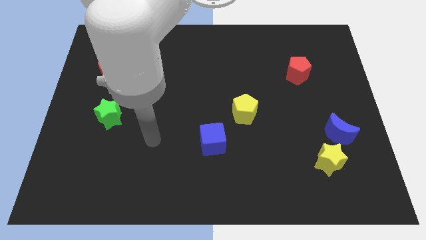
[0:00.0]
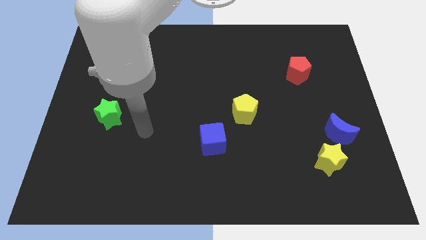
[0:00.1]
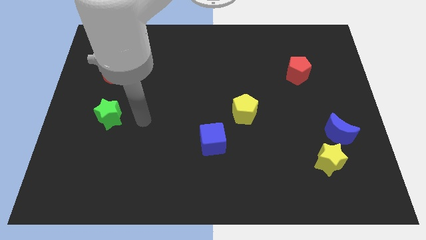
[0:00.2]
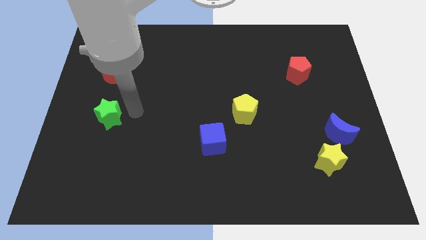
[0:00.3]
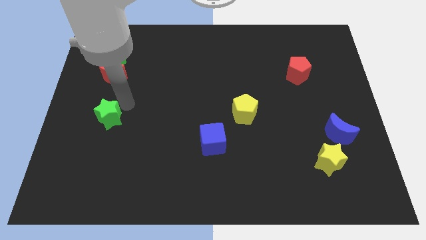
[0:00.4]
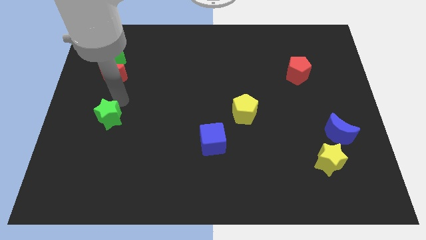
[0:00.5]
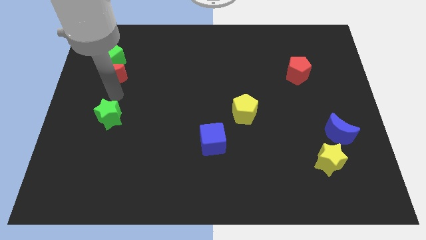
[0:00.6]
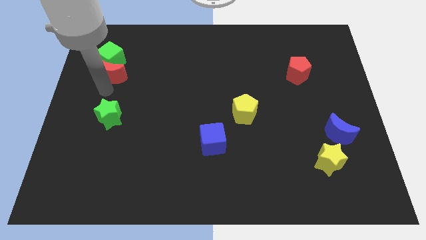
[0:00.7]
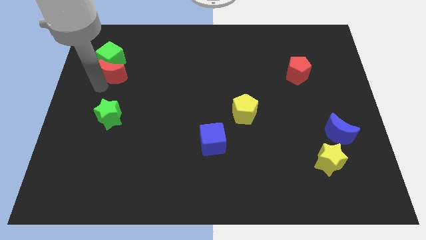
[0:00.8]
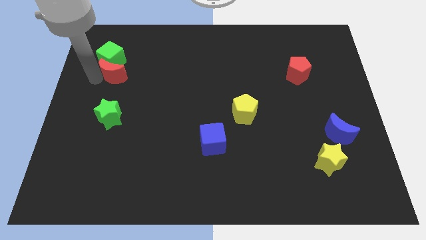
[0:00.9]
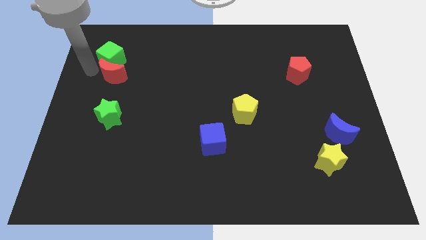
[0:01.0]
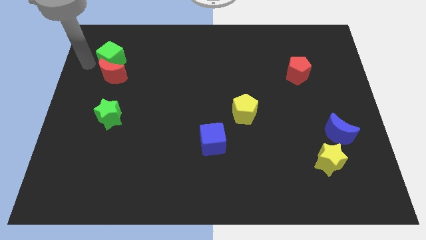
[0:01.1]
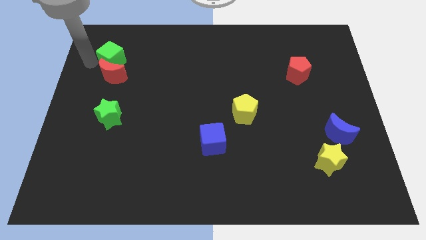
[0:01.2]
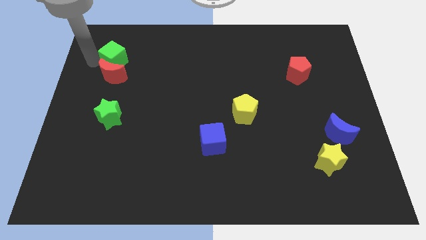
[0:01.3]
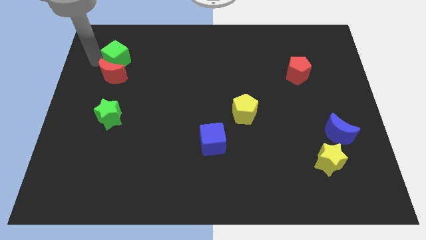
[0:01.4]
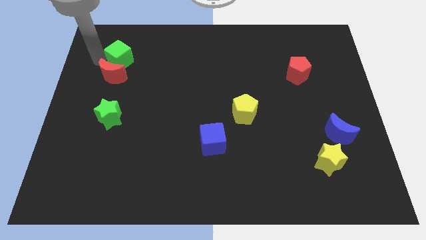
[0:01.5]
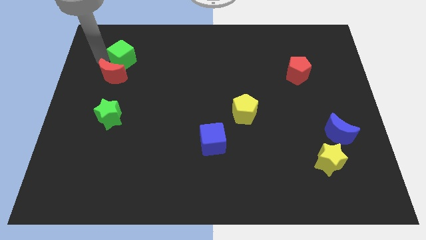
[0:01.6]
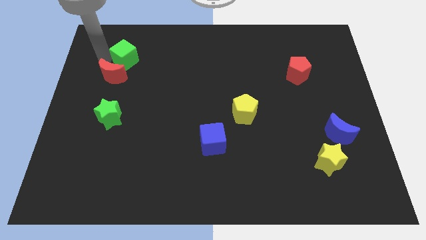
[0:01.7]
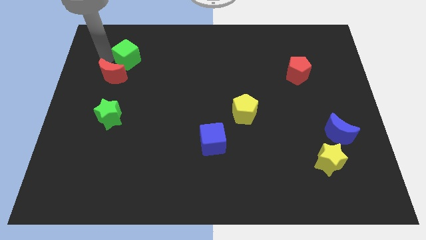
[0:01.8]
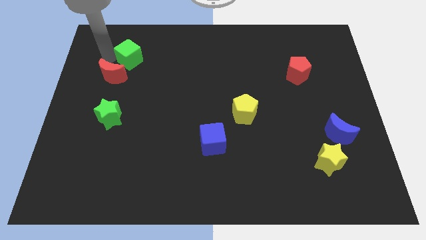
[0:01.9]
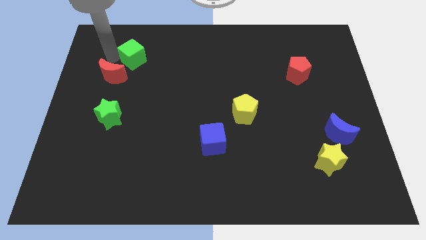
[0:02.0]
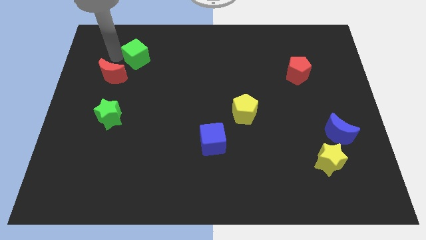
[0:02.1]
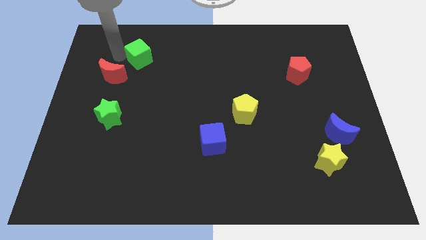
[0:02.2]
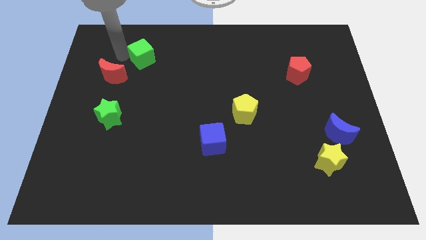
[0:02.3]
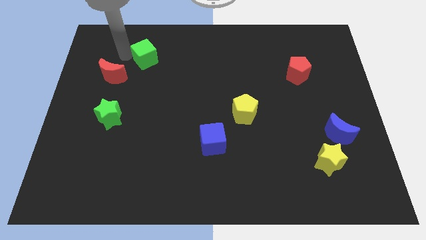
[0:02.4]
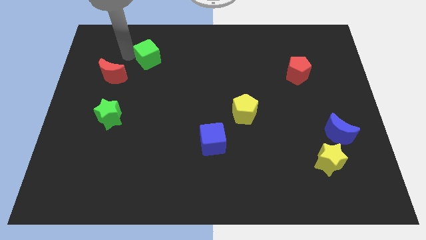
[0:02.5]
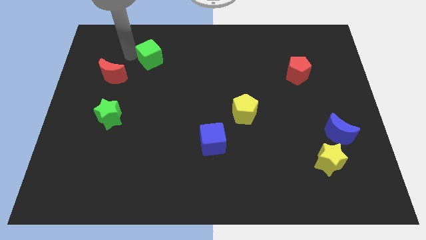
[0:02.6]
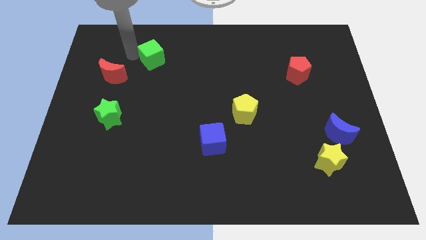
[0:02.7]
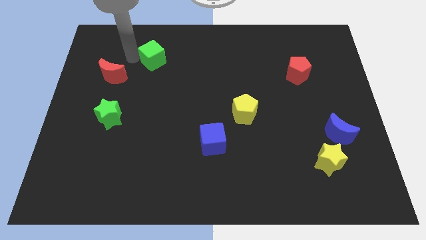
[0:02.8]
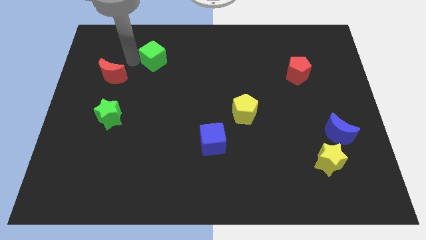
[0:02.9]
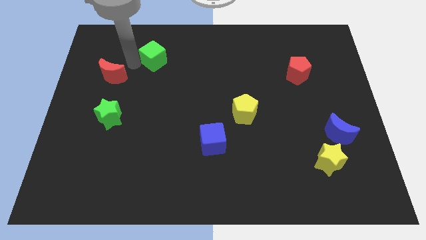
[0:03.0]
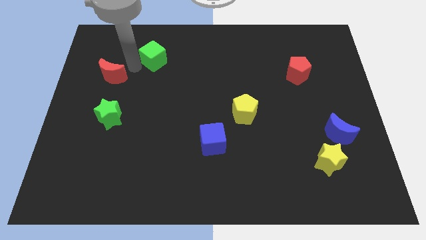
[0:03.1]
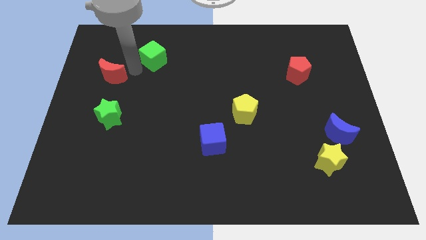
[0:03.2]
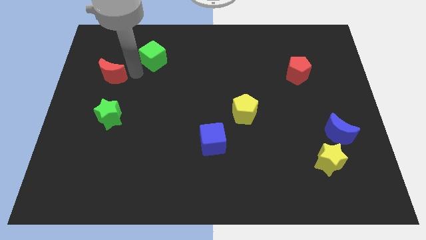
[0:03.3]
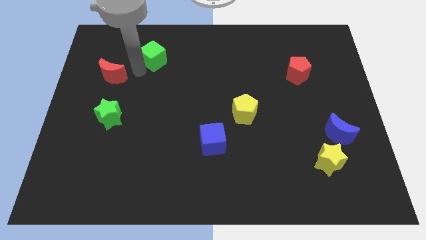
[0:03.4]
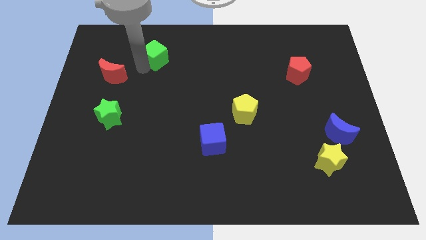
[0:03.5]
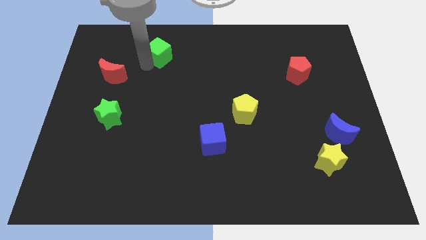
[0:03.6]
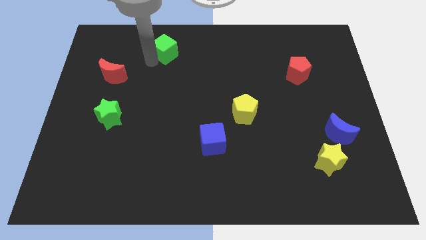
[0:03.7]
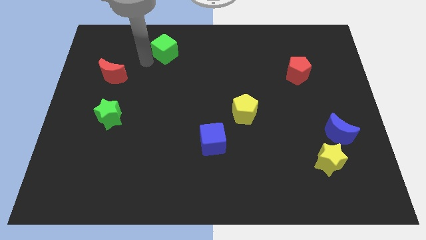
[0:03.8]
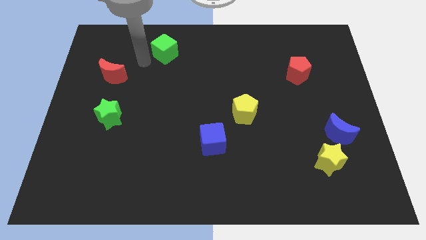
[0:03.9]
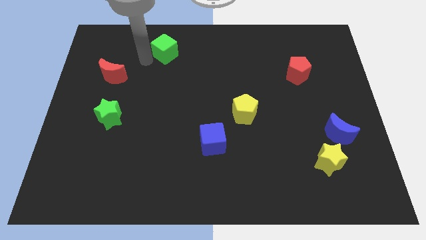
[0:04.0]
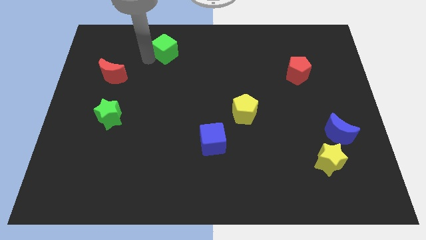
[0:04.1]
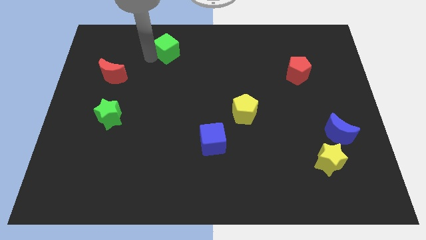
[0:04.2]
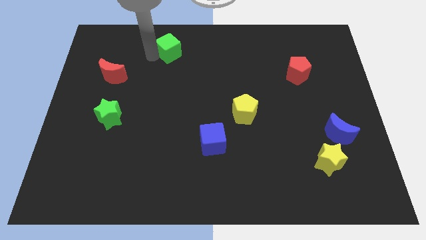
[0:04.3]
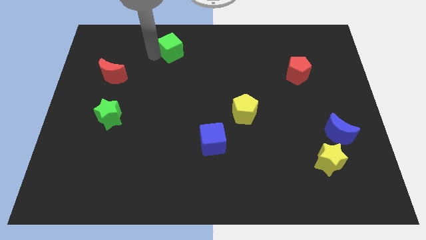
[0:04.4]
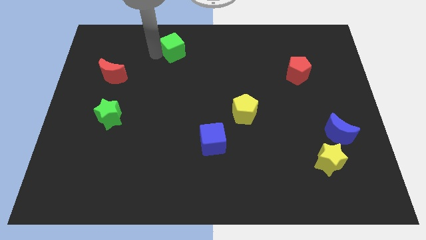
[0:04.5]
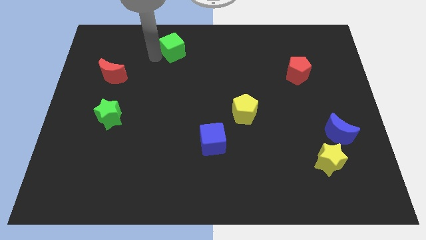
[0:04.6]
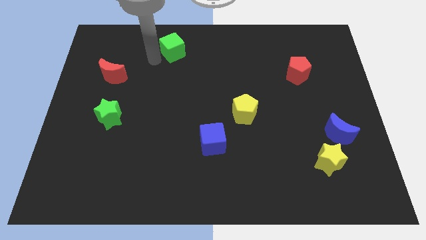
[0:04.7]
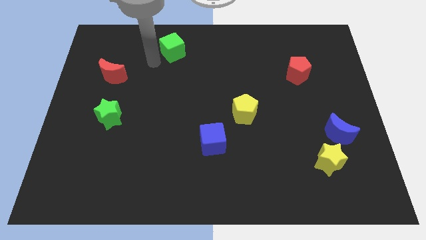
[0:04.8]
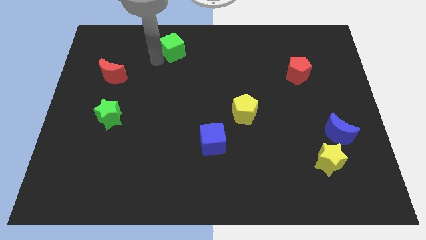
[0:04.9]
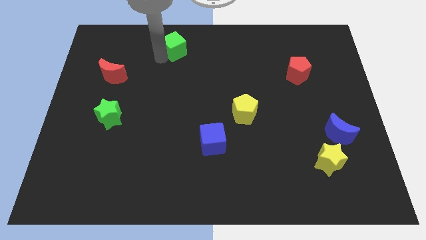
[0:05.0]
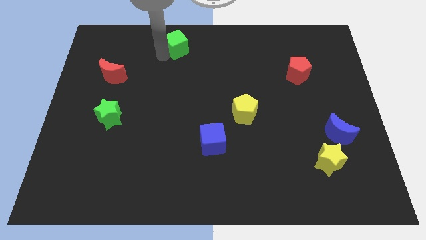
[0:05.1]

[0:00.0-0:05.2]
slide the green cube to the top side

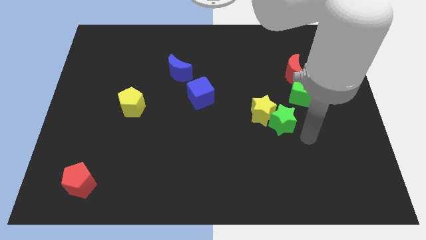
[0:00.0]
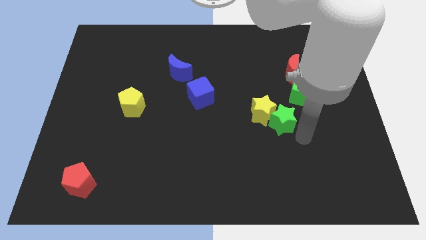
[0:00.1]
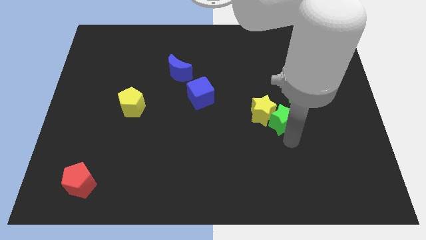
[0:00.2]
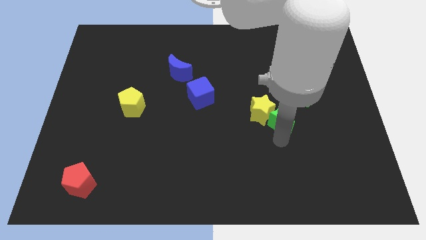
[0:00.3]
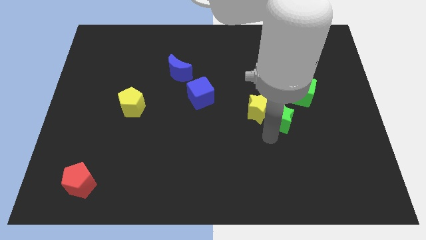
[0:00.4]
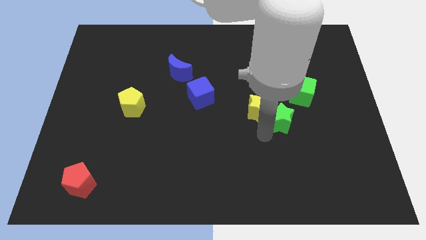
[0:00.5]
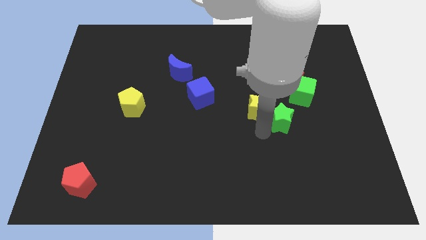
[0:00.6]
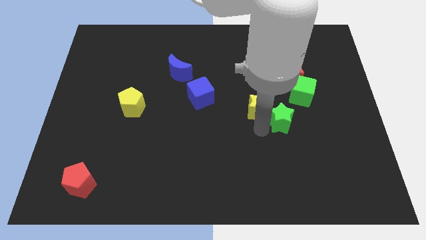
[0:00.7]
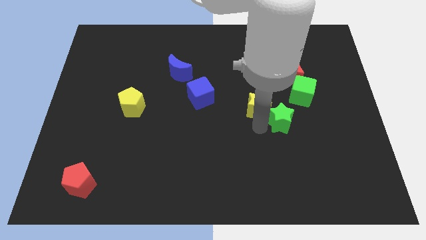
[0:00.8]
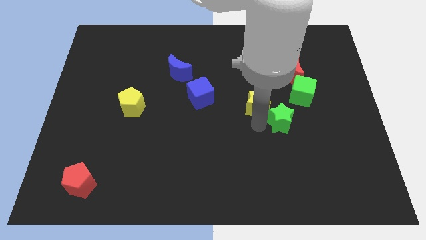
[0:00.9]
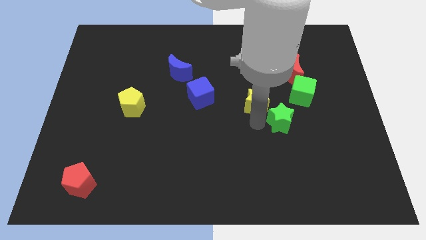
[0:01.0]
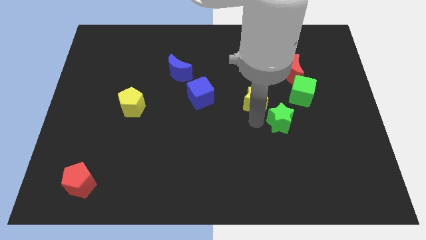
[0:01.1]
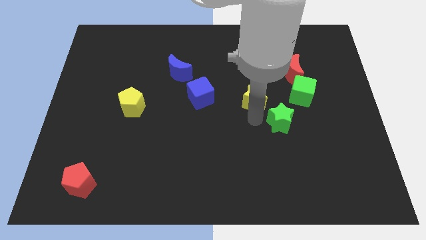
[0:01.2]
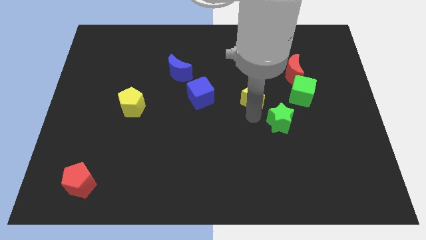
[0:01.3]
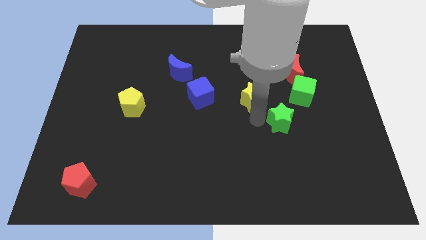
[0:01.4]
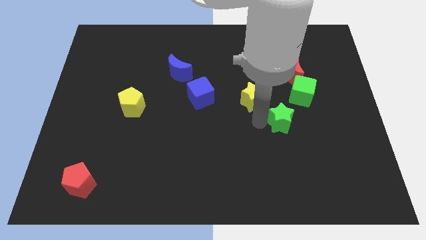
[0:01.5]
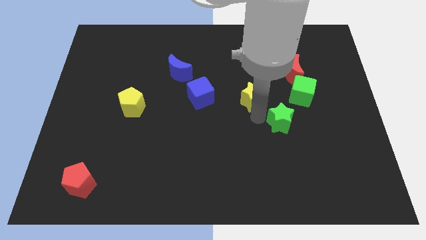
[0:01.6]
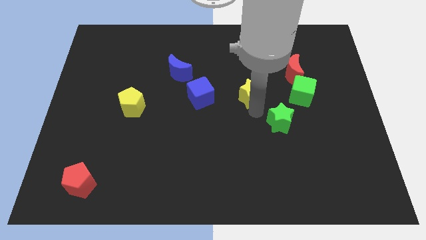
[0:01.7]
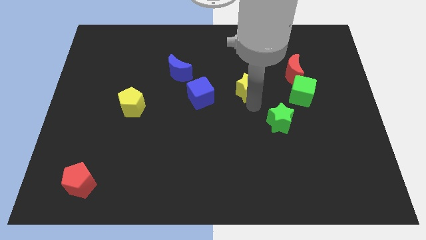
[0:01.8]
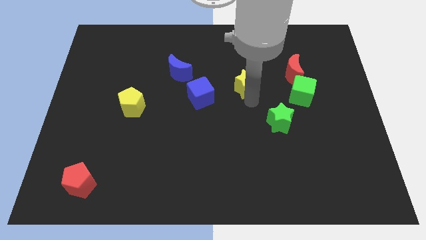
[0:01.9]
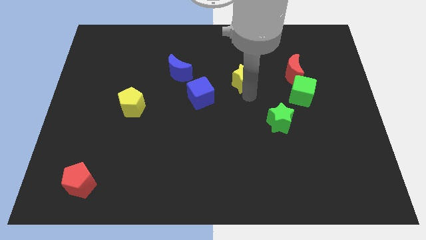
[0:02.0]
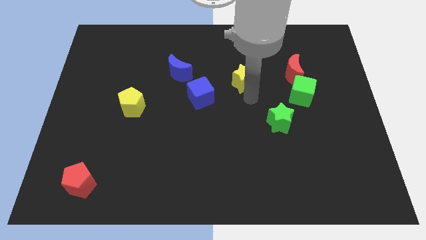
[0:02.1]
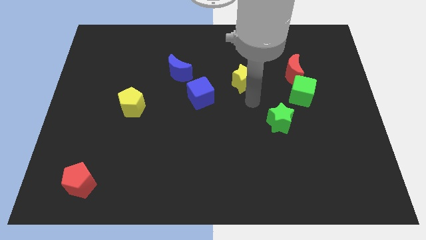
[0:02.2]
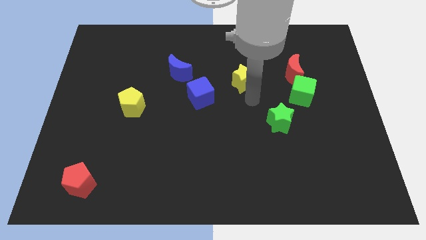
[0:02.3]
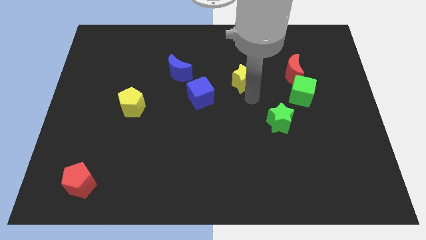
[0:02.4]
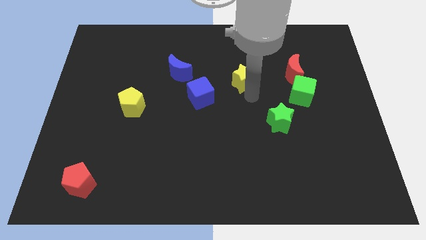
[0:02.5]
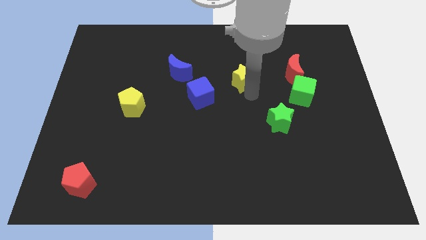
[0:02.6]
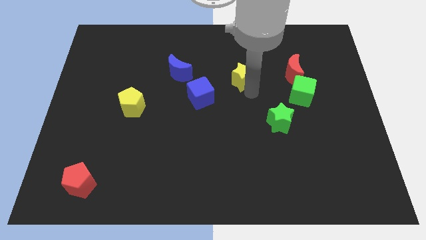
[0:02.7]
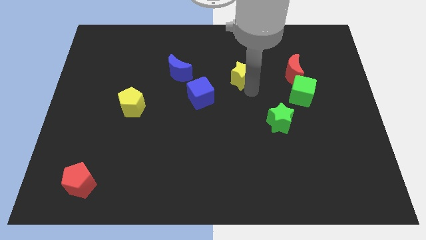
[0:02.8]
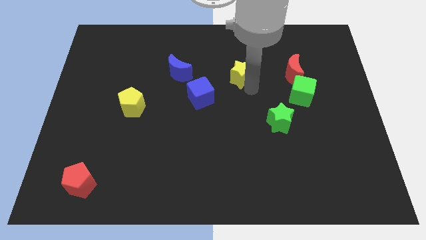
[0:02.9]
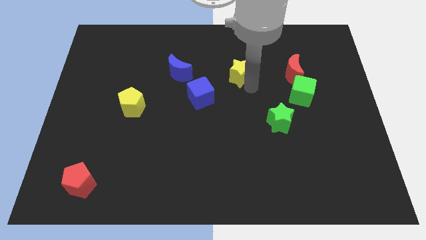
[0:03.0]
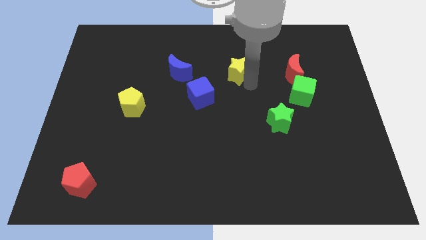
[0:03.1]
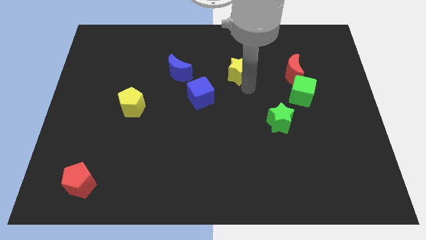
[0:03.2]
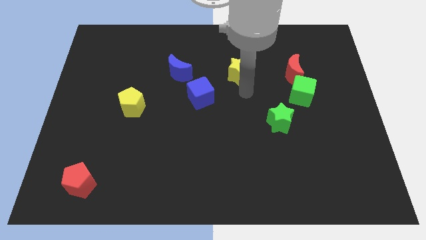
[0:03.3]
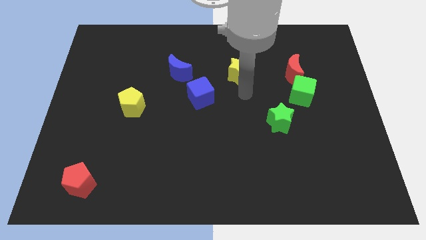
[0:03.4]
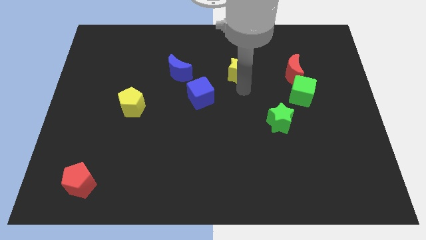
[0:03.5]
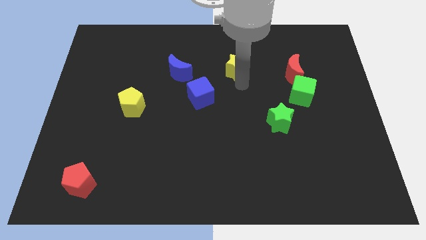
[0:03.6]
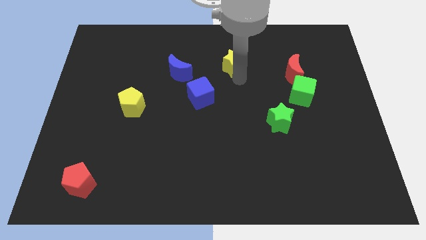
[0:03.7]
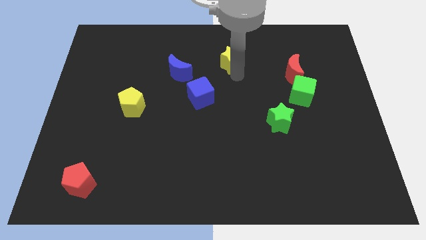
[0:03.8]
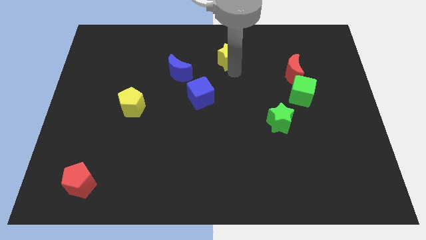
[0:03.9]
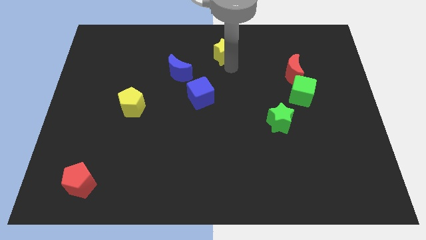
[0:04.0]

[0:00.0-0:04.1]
push the yellow star to the top
